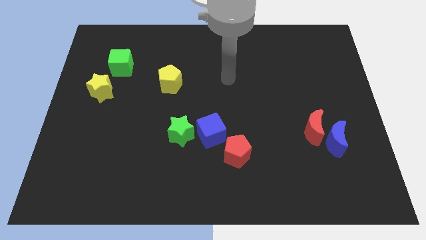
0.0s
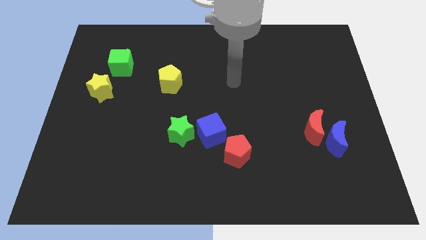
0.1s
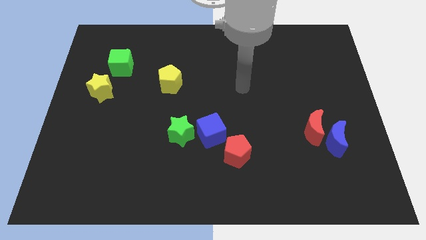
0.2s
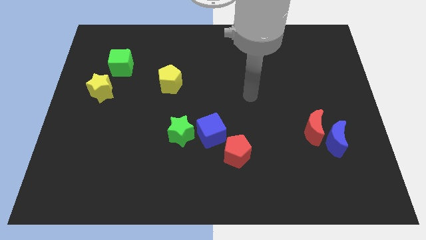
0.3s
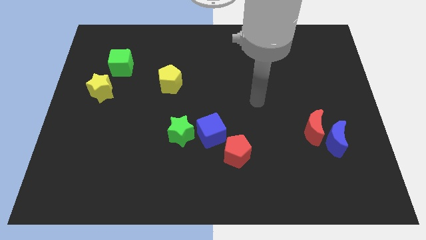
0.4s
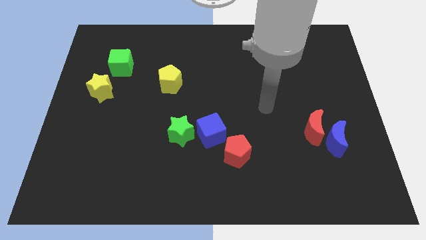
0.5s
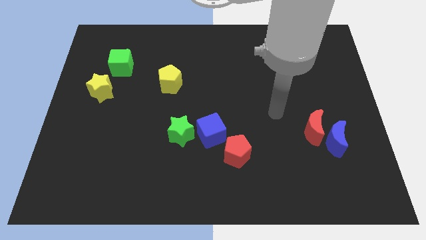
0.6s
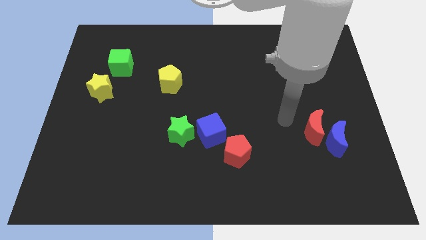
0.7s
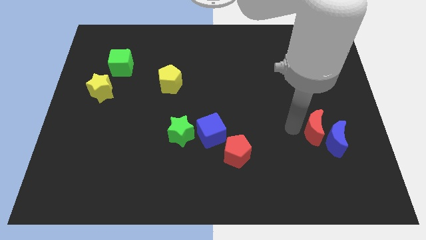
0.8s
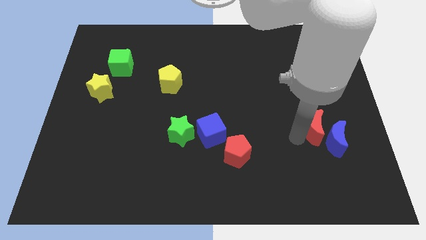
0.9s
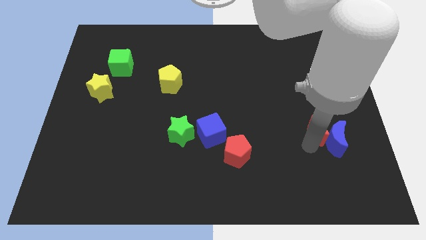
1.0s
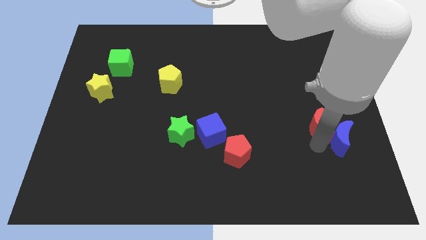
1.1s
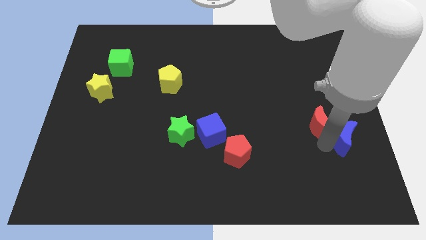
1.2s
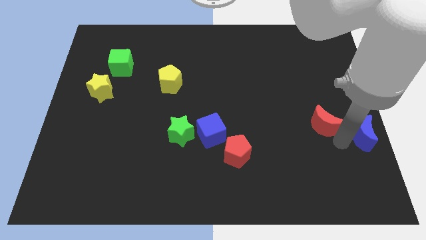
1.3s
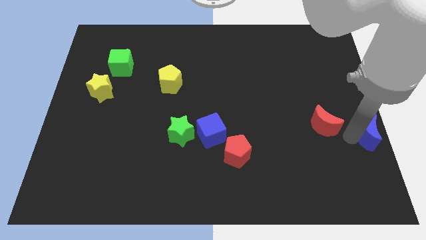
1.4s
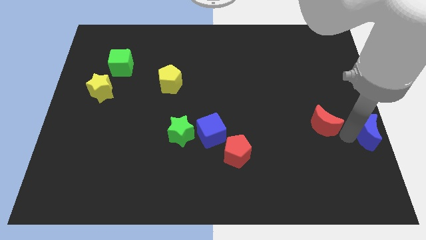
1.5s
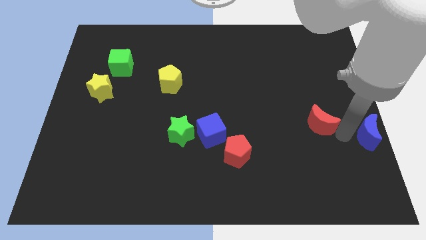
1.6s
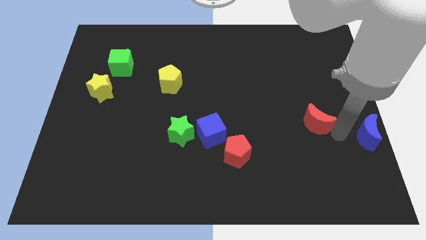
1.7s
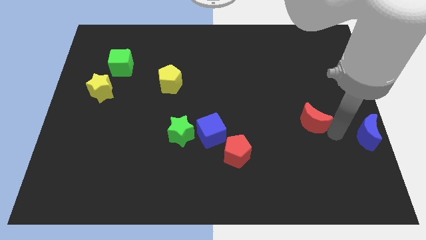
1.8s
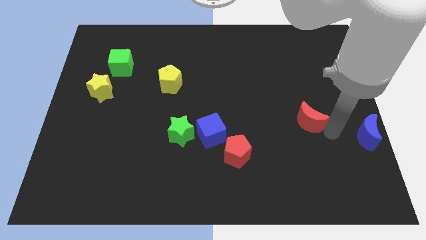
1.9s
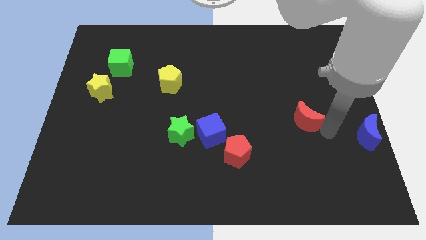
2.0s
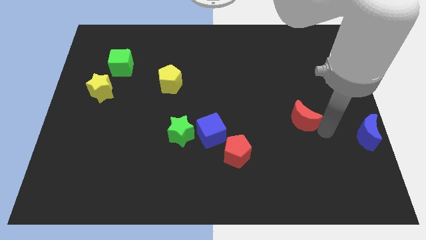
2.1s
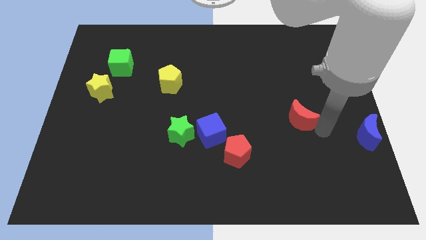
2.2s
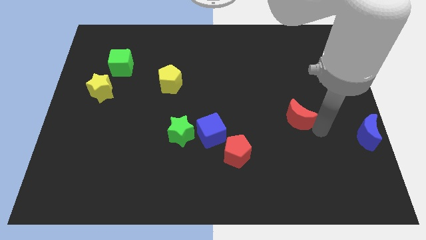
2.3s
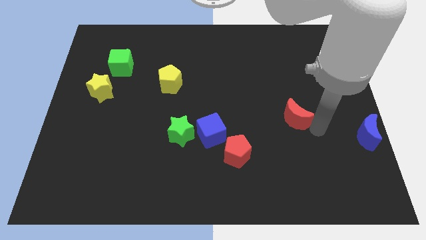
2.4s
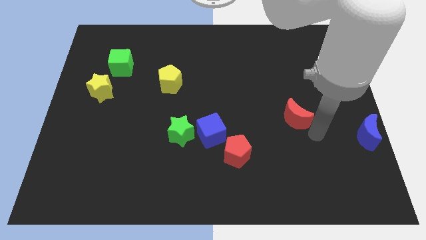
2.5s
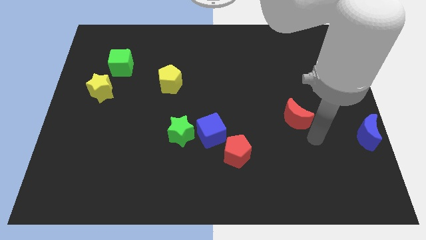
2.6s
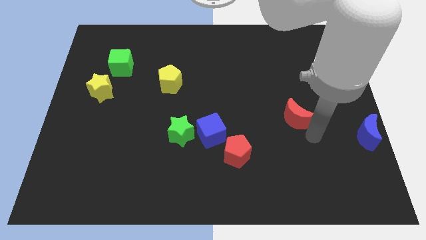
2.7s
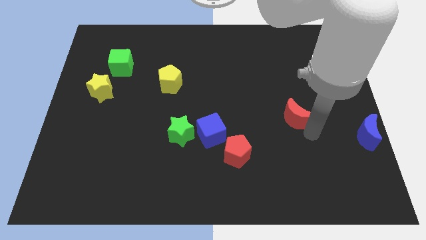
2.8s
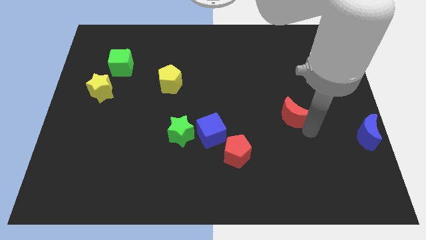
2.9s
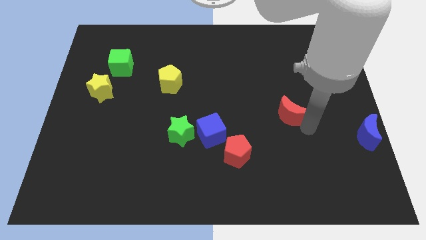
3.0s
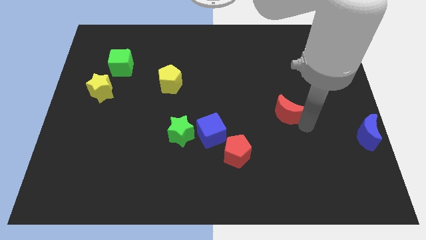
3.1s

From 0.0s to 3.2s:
move the red moon upwards and to the left diagonally a little

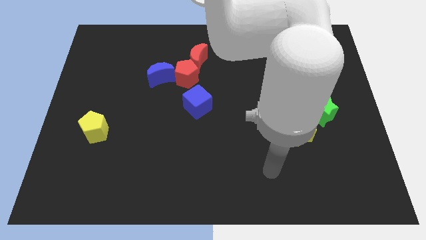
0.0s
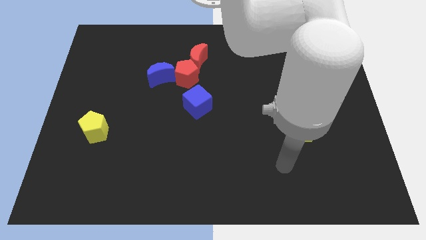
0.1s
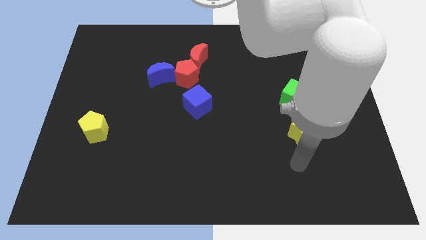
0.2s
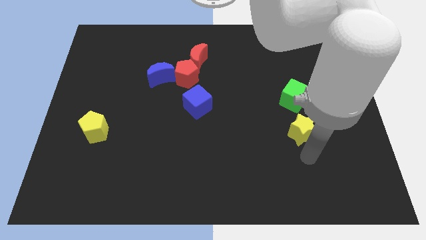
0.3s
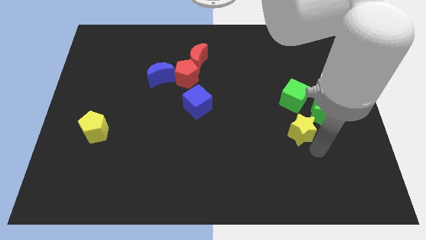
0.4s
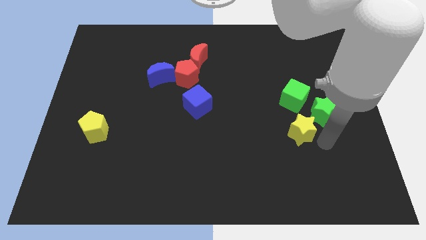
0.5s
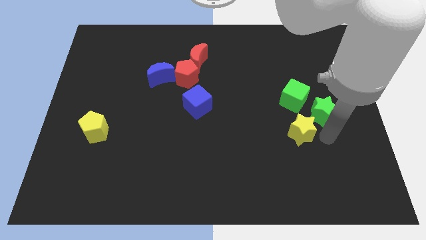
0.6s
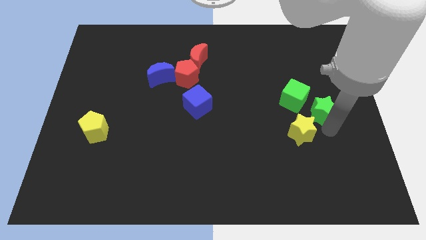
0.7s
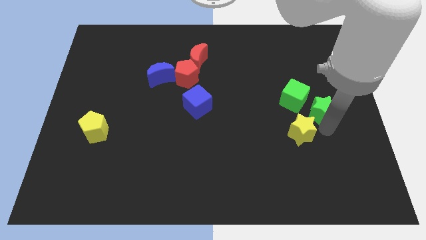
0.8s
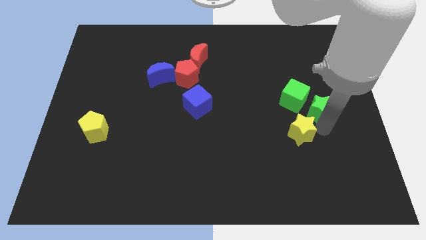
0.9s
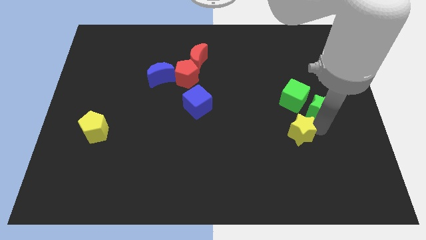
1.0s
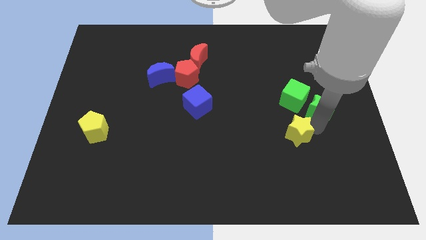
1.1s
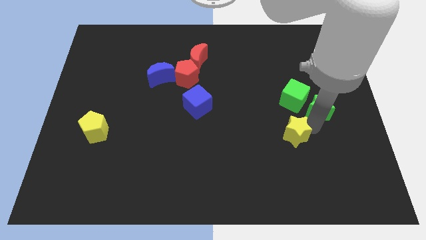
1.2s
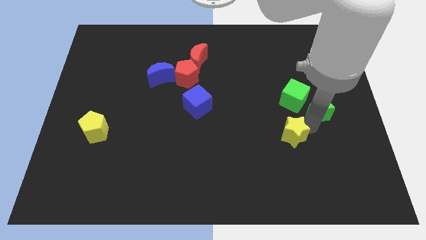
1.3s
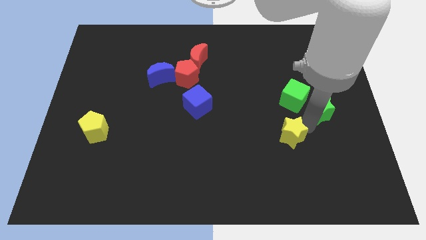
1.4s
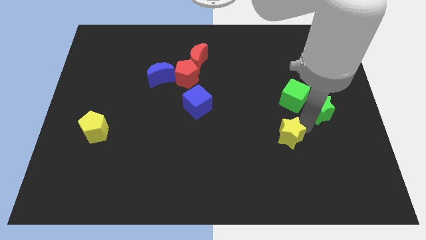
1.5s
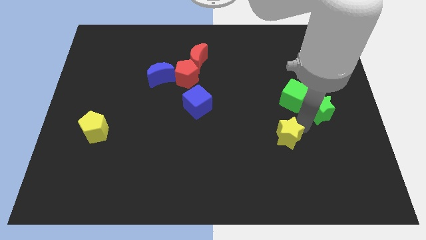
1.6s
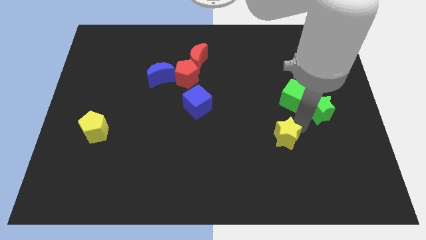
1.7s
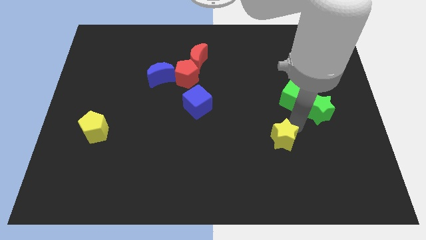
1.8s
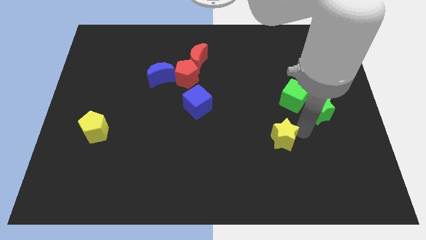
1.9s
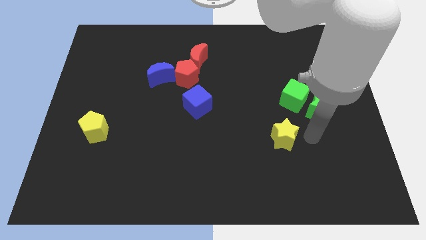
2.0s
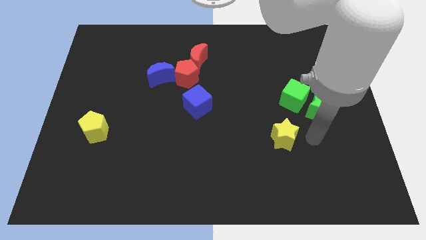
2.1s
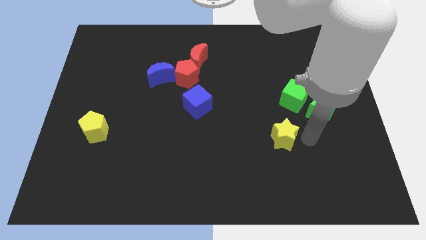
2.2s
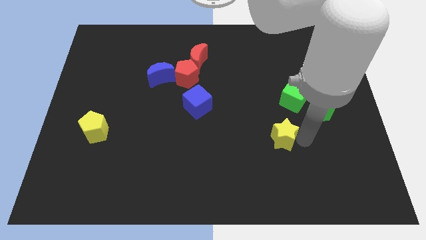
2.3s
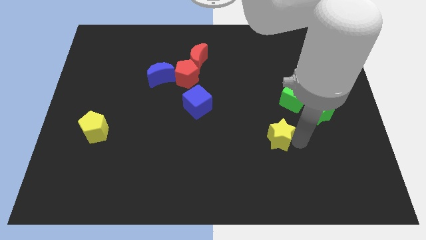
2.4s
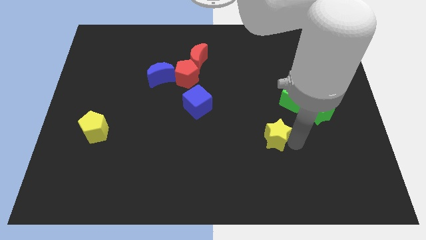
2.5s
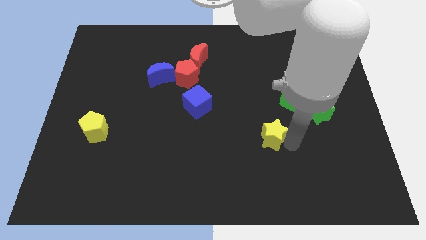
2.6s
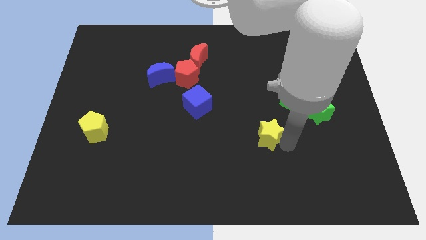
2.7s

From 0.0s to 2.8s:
move the yellow star to the left a little bit
